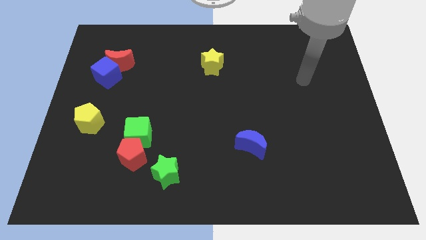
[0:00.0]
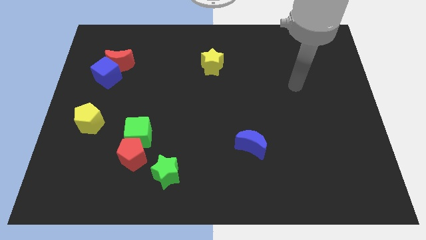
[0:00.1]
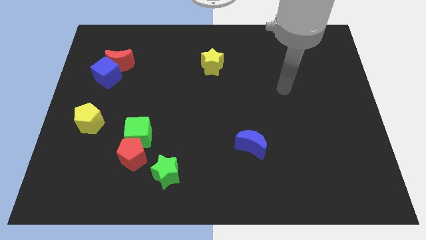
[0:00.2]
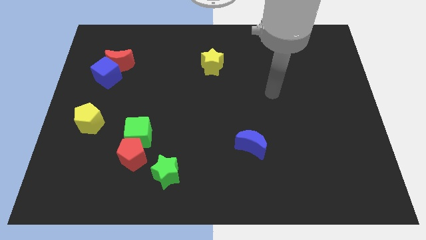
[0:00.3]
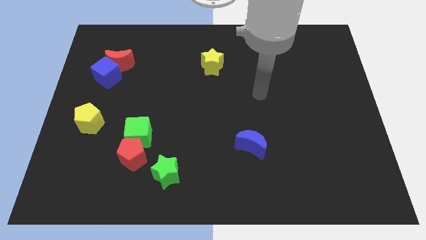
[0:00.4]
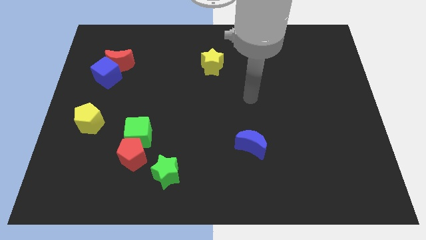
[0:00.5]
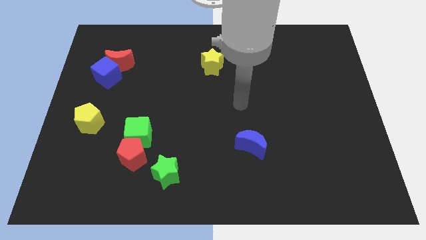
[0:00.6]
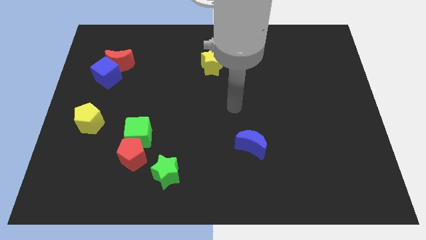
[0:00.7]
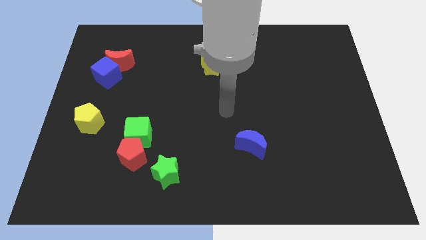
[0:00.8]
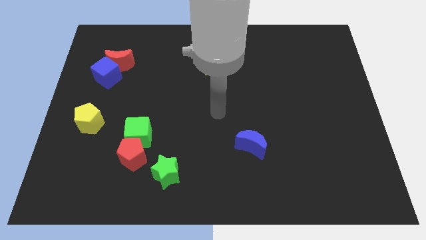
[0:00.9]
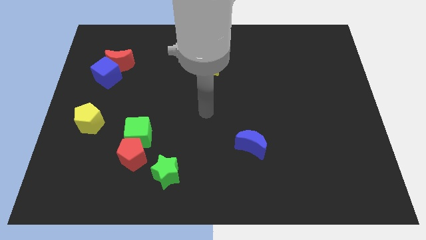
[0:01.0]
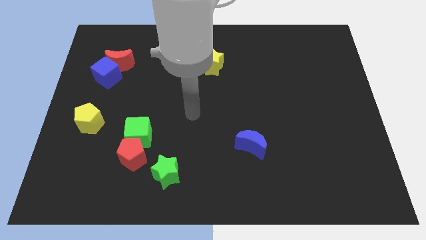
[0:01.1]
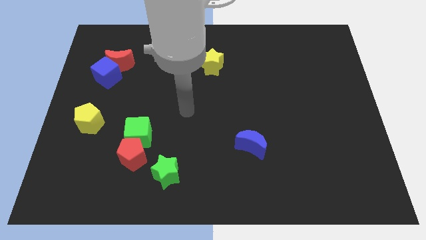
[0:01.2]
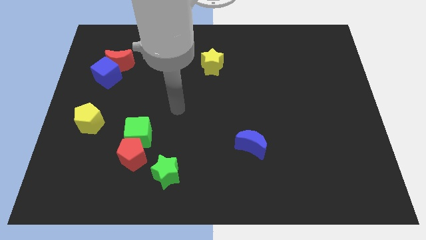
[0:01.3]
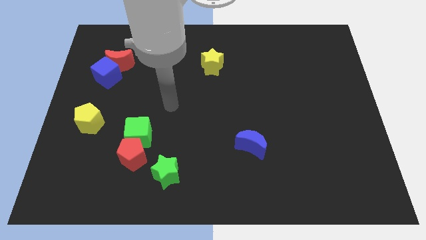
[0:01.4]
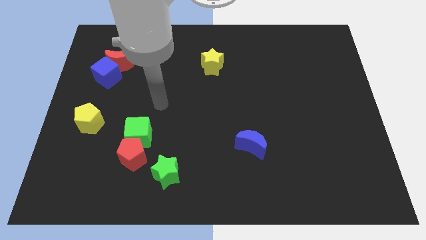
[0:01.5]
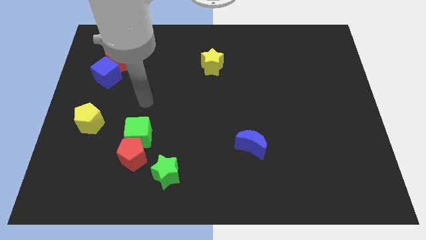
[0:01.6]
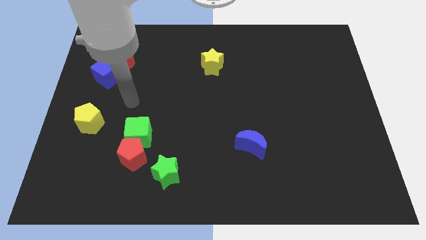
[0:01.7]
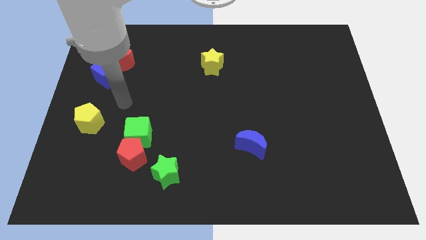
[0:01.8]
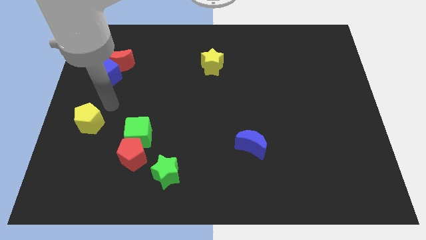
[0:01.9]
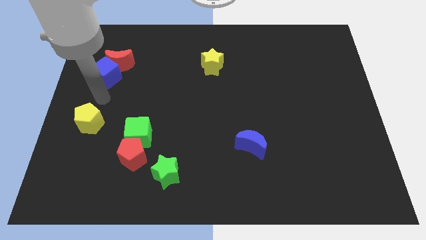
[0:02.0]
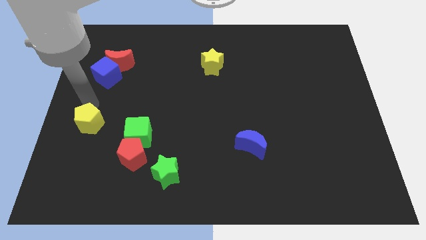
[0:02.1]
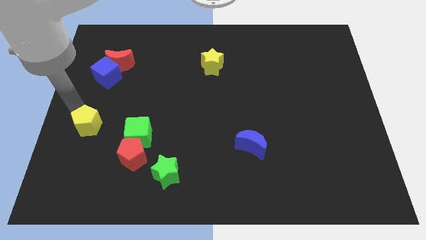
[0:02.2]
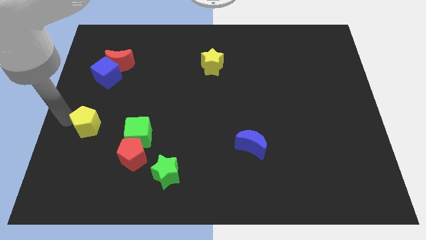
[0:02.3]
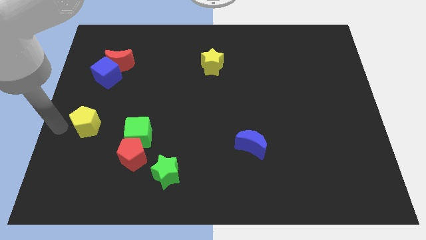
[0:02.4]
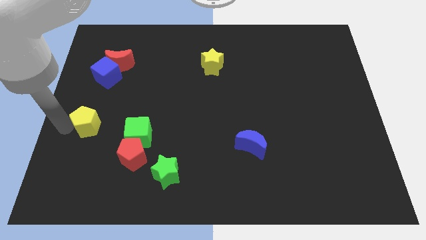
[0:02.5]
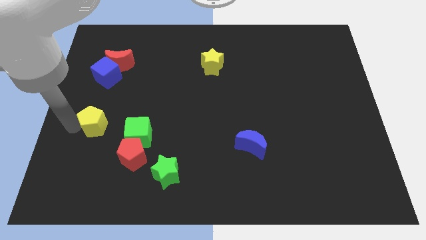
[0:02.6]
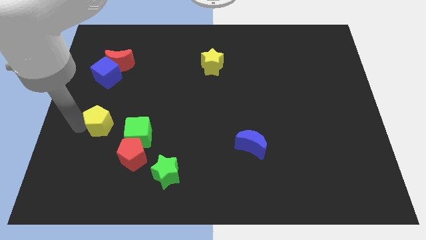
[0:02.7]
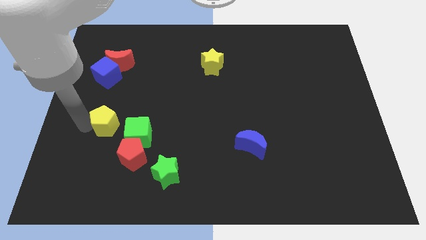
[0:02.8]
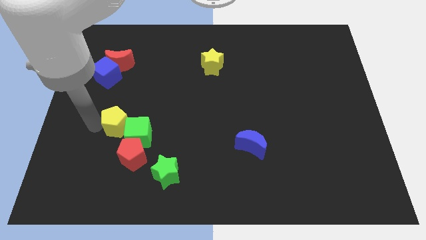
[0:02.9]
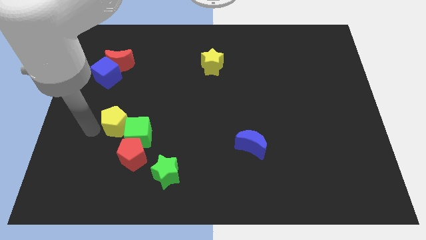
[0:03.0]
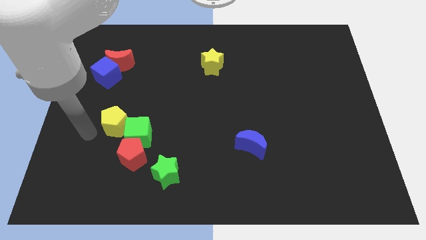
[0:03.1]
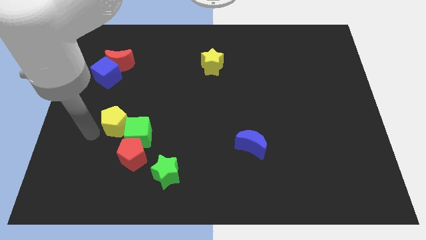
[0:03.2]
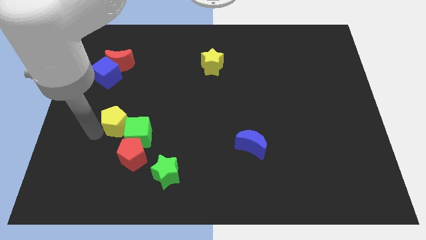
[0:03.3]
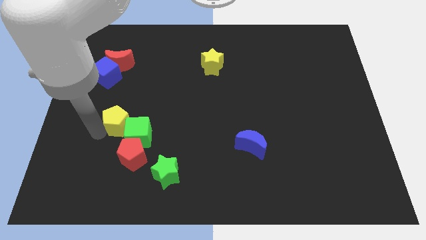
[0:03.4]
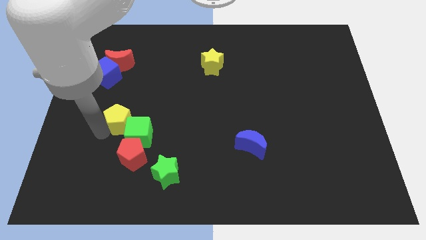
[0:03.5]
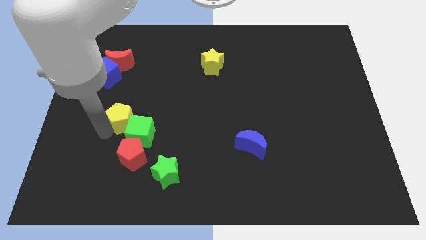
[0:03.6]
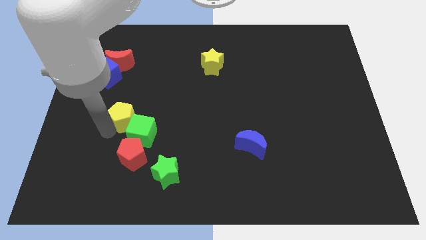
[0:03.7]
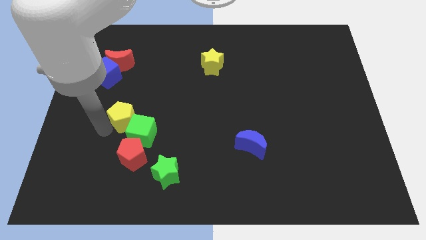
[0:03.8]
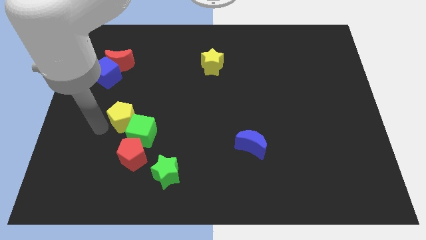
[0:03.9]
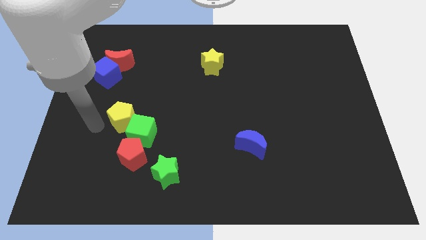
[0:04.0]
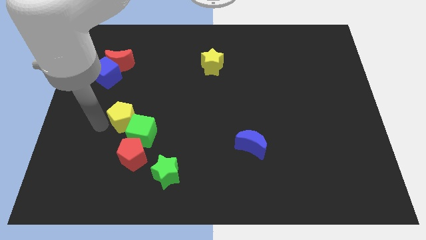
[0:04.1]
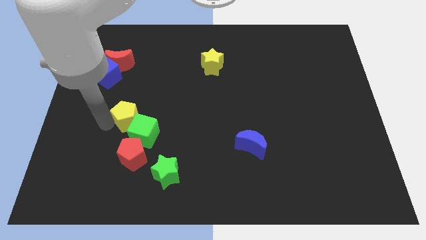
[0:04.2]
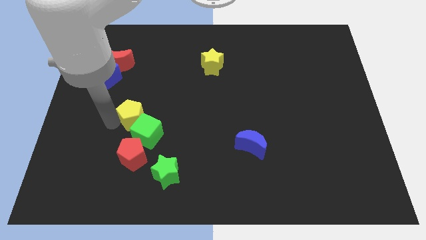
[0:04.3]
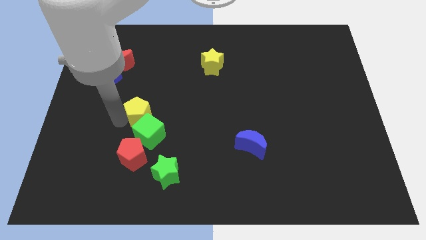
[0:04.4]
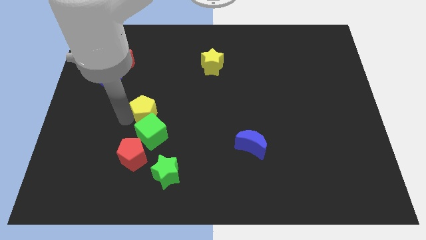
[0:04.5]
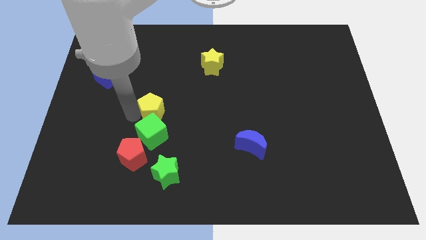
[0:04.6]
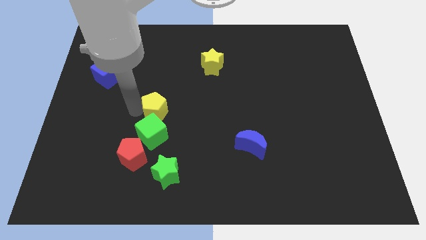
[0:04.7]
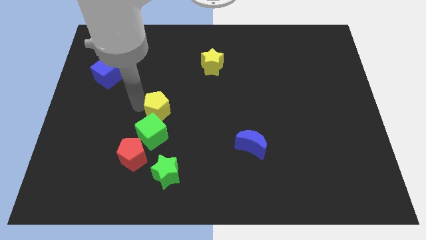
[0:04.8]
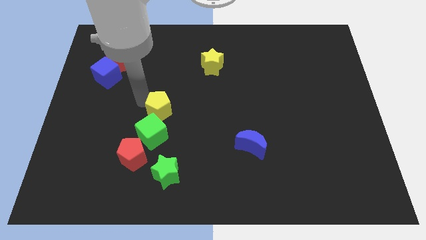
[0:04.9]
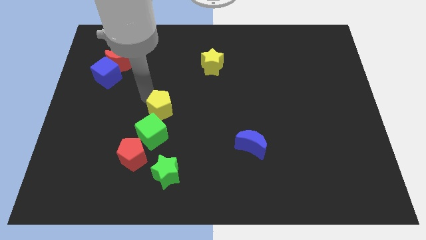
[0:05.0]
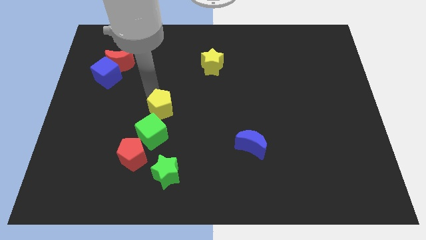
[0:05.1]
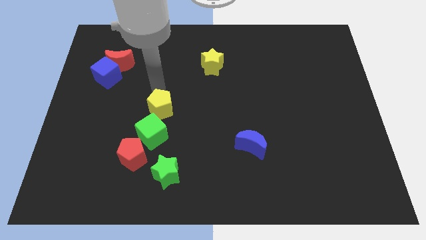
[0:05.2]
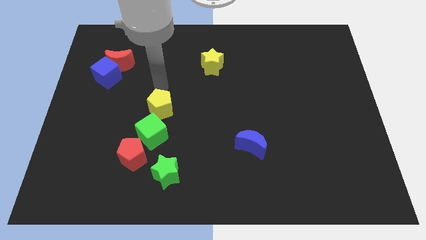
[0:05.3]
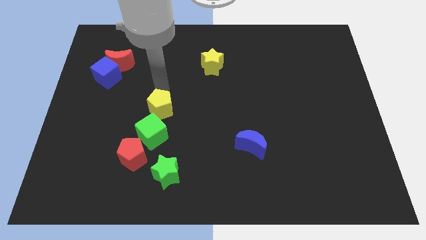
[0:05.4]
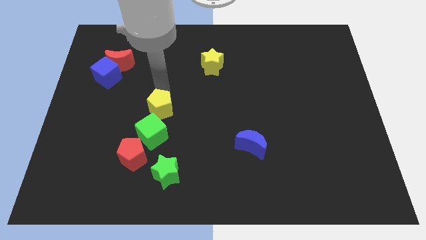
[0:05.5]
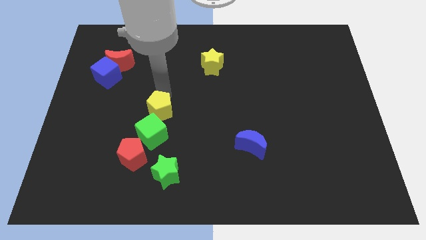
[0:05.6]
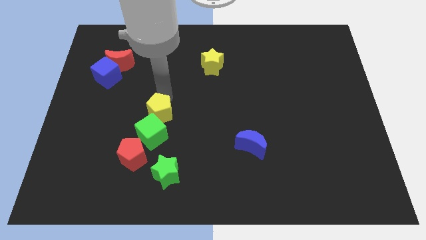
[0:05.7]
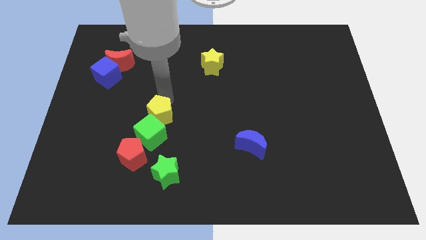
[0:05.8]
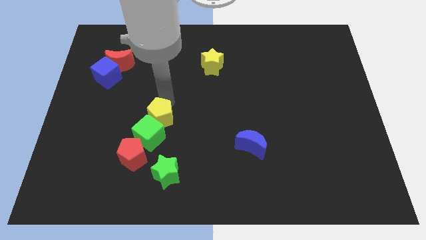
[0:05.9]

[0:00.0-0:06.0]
move the yellow pentagon to the top right side of the red pentagon

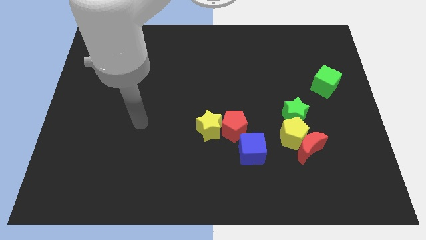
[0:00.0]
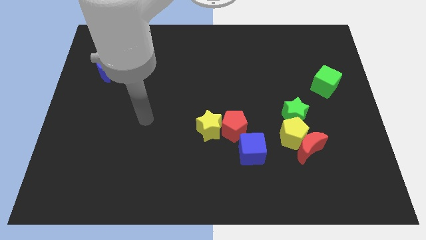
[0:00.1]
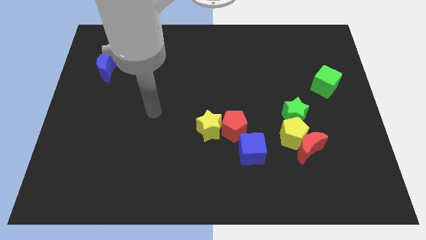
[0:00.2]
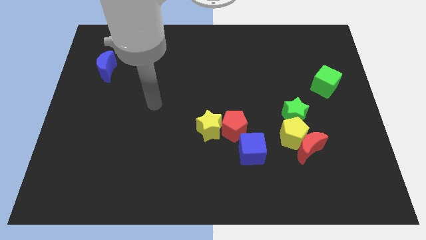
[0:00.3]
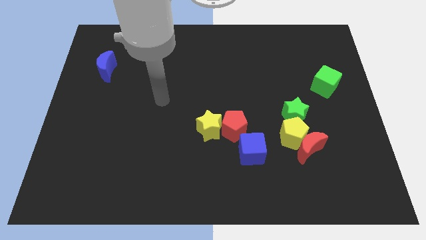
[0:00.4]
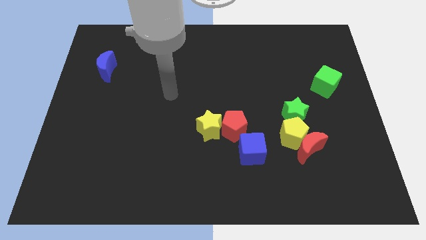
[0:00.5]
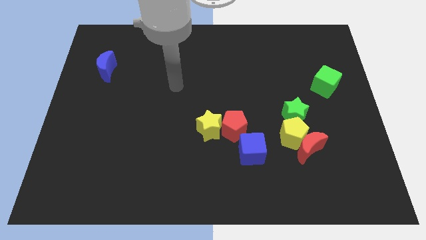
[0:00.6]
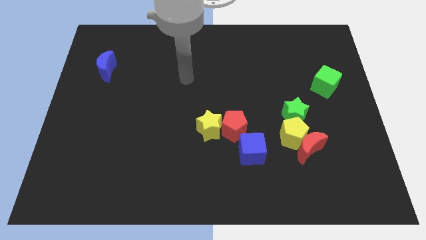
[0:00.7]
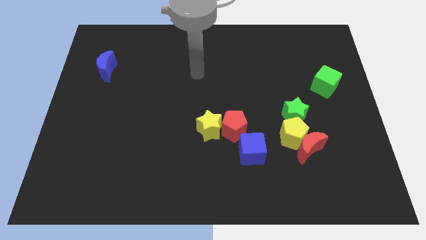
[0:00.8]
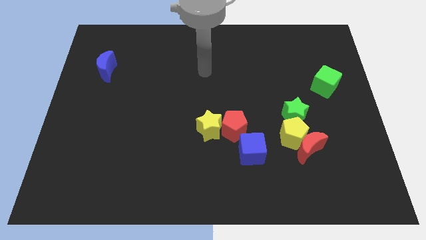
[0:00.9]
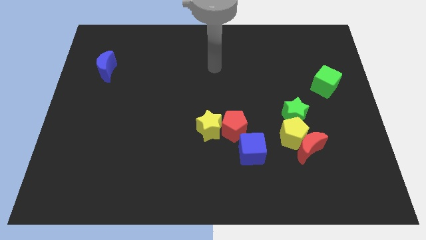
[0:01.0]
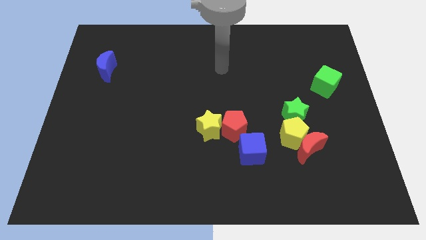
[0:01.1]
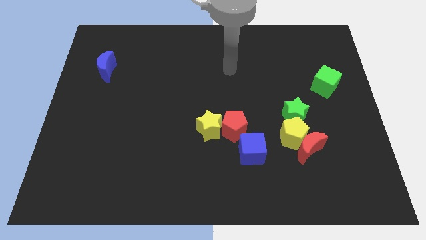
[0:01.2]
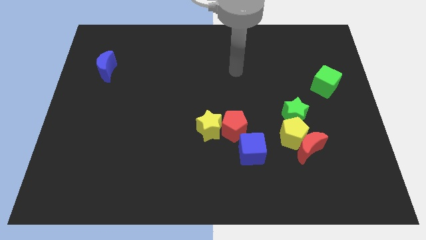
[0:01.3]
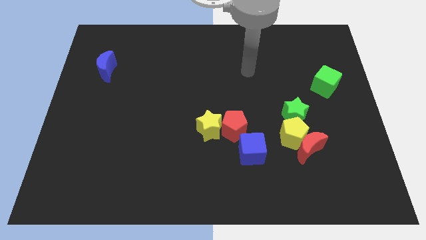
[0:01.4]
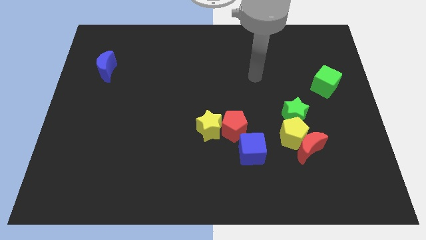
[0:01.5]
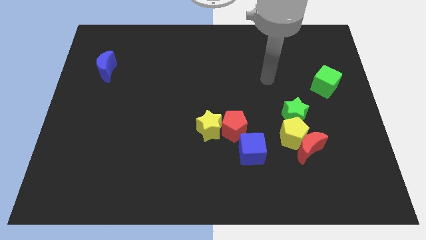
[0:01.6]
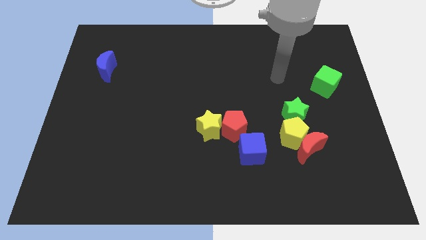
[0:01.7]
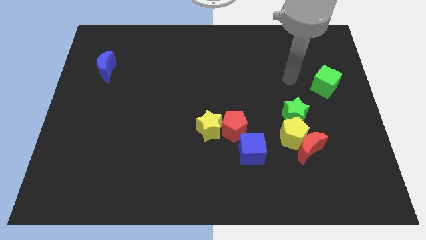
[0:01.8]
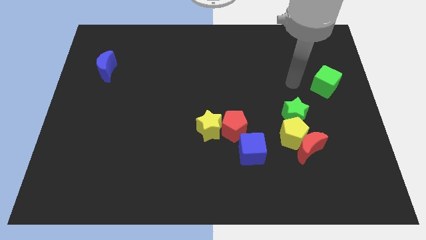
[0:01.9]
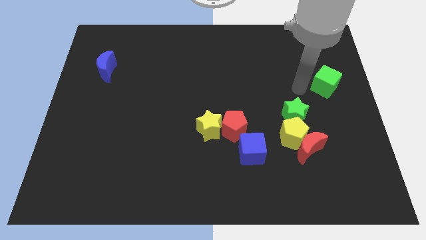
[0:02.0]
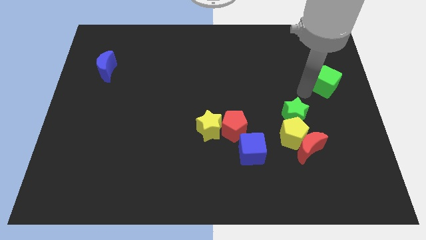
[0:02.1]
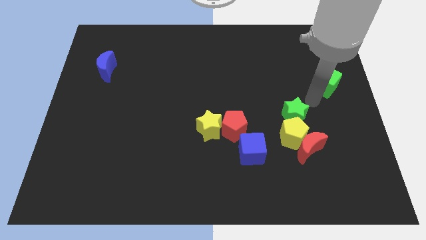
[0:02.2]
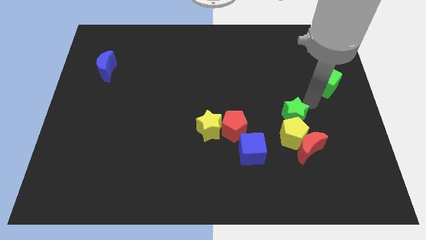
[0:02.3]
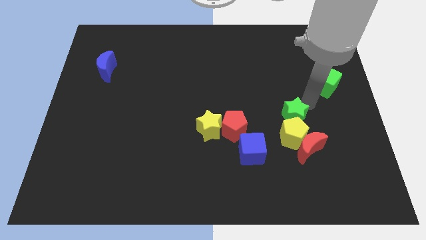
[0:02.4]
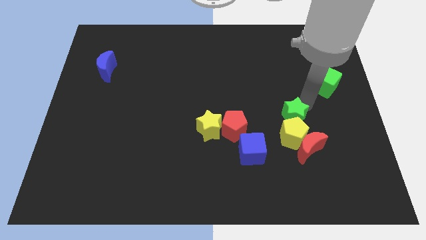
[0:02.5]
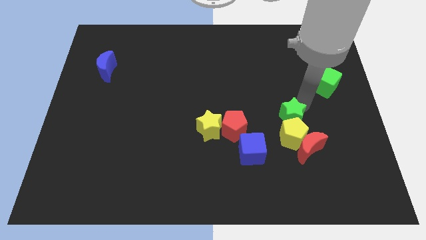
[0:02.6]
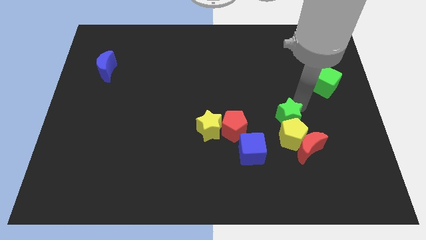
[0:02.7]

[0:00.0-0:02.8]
move the green star to the top right of the blue cube
